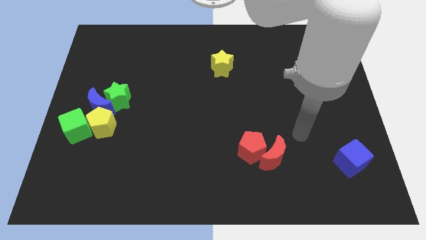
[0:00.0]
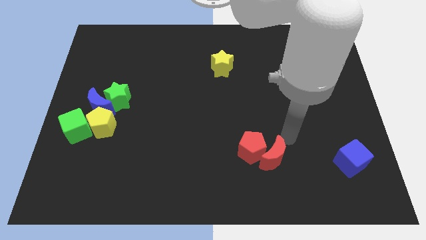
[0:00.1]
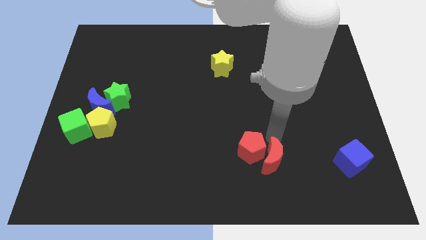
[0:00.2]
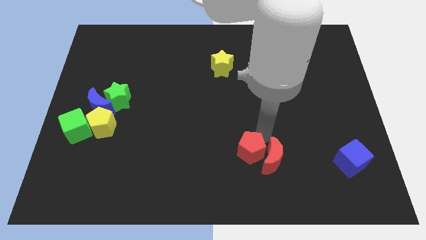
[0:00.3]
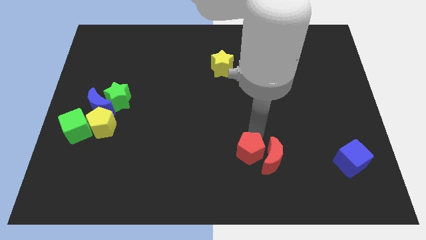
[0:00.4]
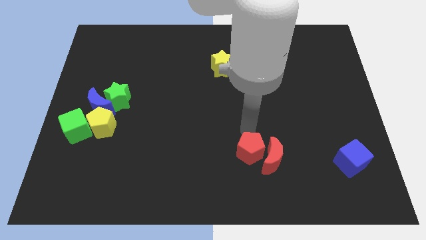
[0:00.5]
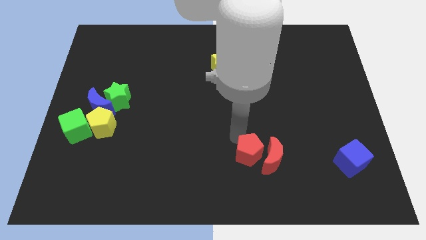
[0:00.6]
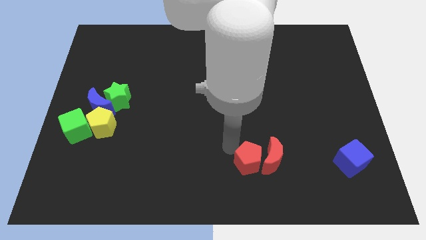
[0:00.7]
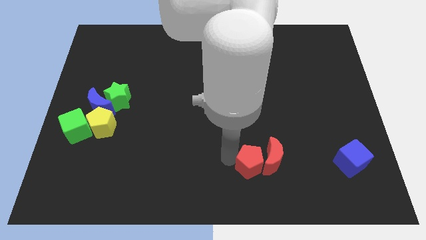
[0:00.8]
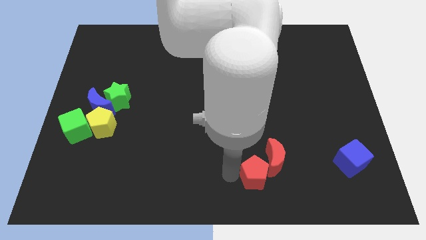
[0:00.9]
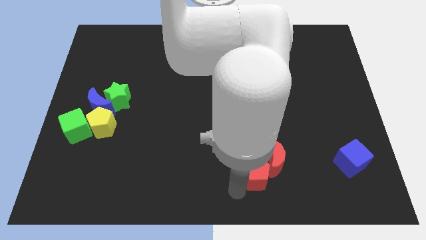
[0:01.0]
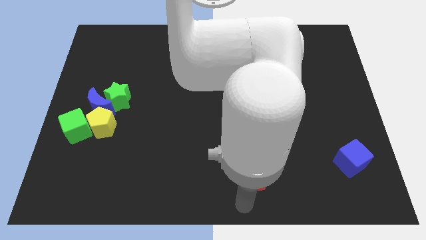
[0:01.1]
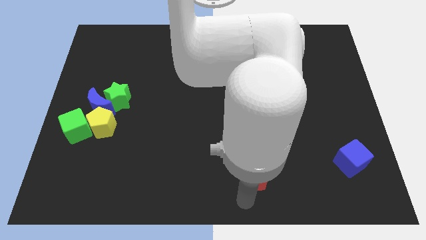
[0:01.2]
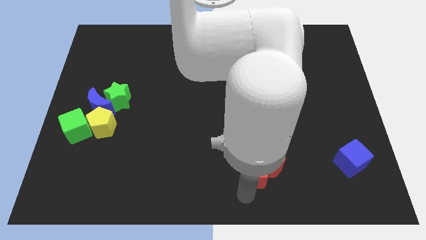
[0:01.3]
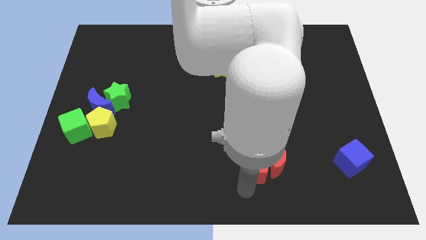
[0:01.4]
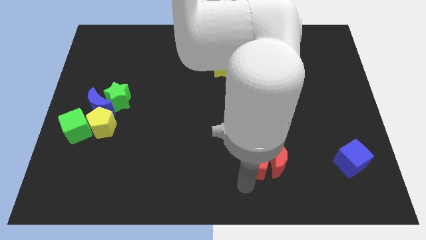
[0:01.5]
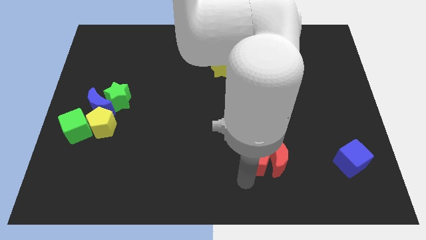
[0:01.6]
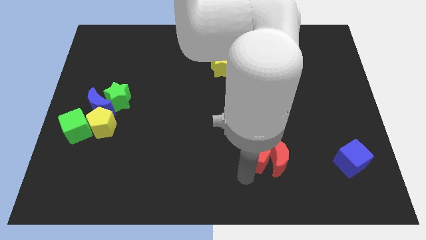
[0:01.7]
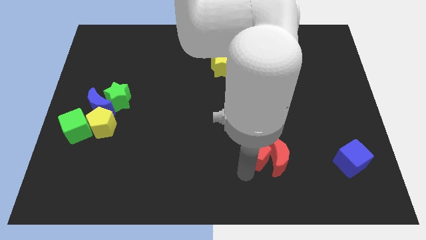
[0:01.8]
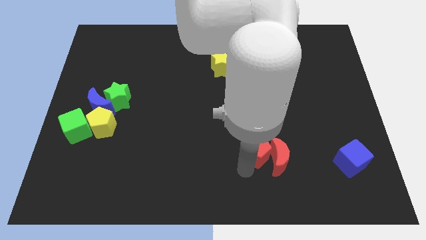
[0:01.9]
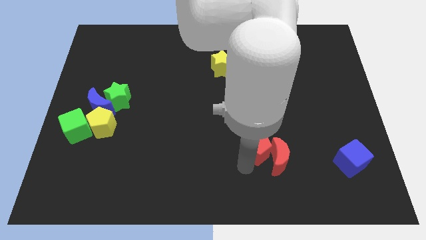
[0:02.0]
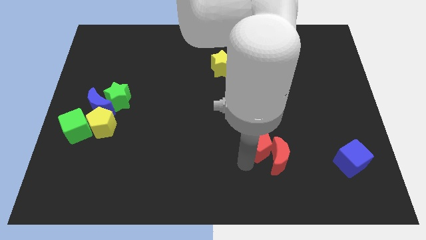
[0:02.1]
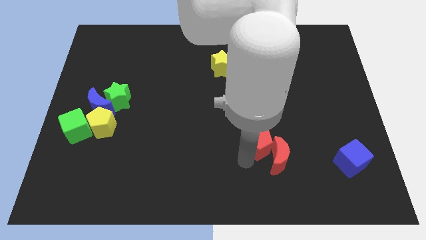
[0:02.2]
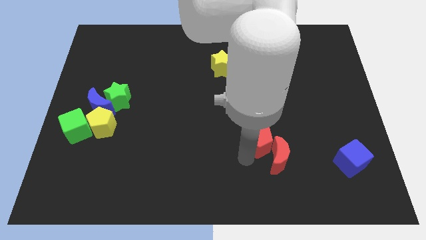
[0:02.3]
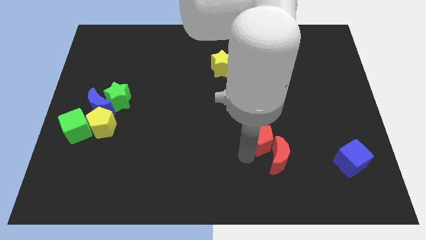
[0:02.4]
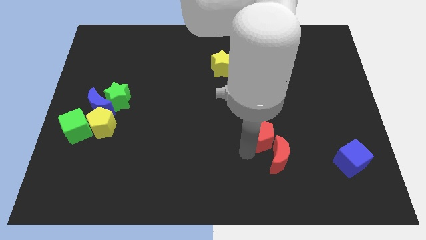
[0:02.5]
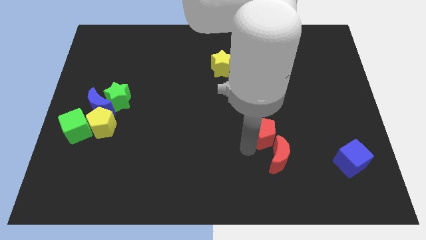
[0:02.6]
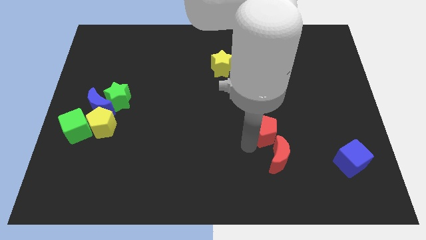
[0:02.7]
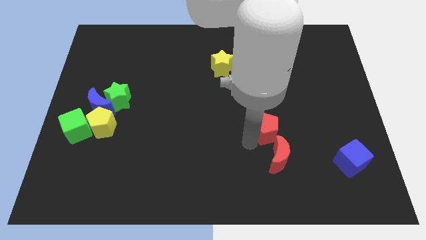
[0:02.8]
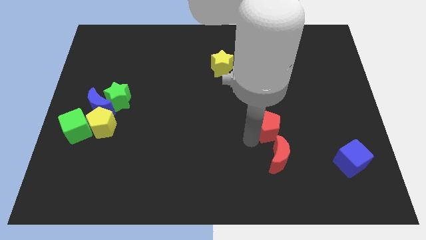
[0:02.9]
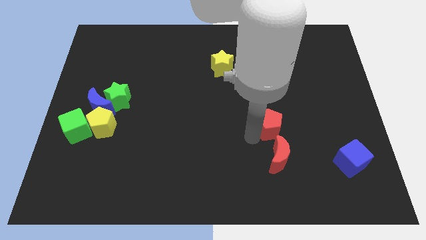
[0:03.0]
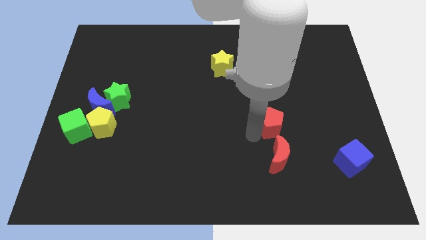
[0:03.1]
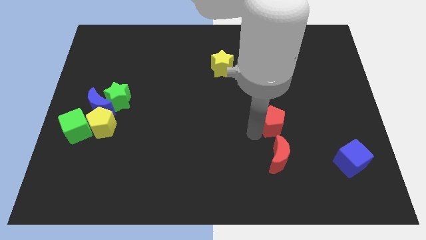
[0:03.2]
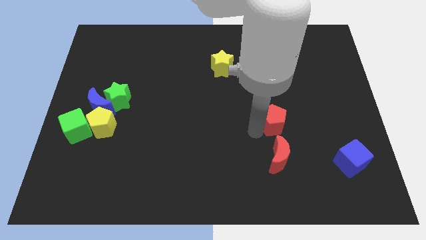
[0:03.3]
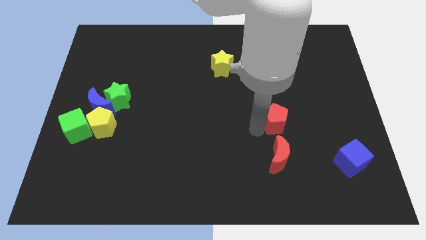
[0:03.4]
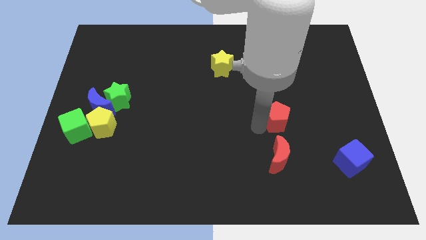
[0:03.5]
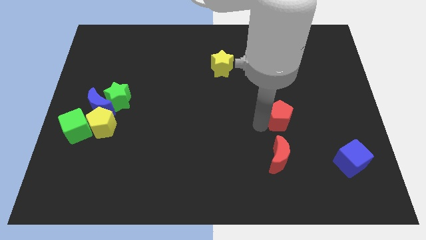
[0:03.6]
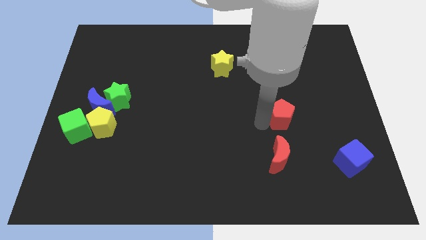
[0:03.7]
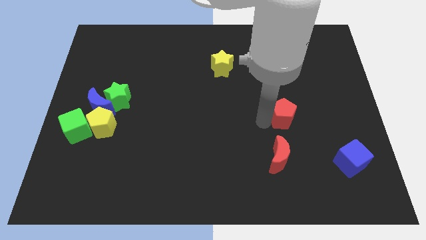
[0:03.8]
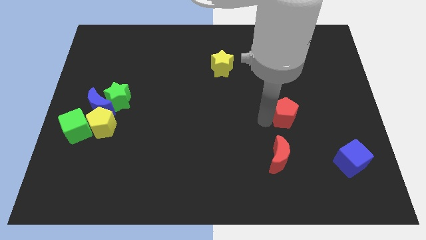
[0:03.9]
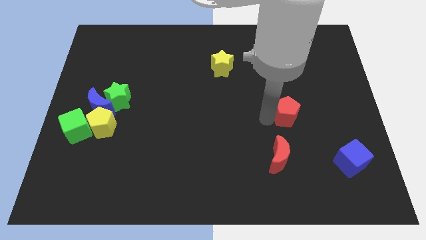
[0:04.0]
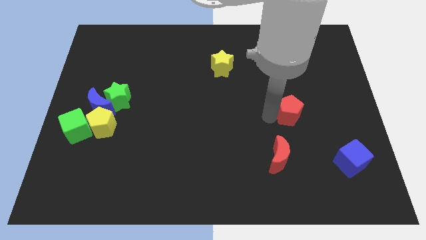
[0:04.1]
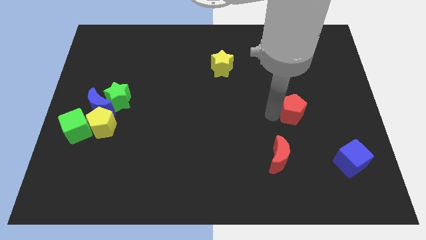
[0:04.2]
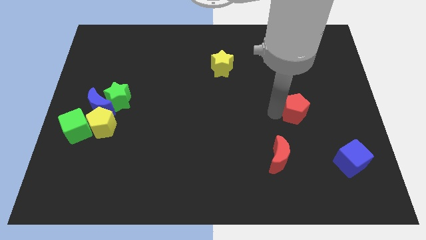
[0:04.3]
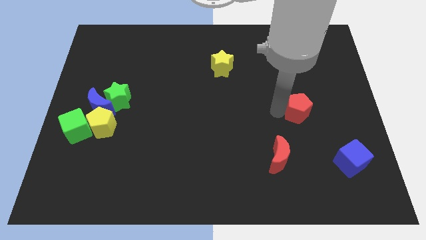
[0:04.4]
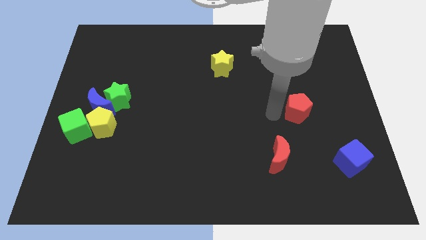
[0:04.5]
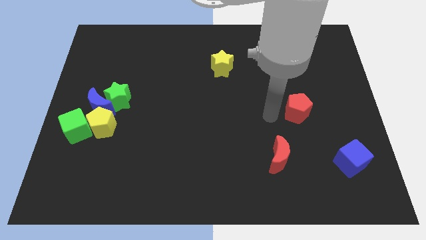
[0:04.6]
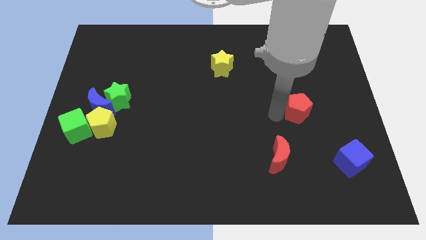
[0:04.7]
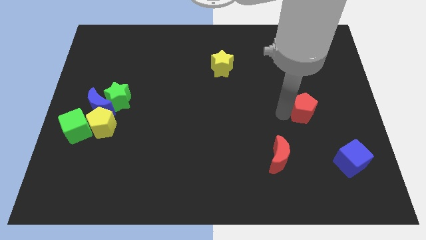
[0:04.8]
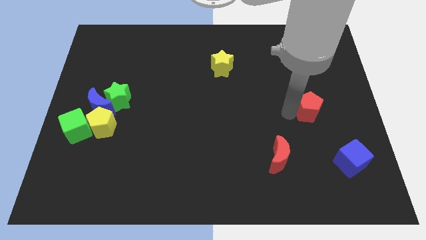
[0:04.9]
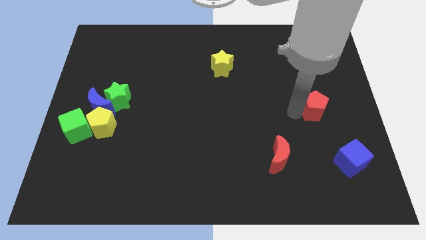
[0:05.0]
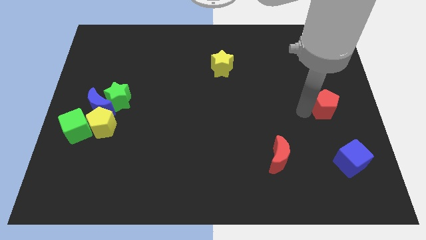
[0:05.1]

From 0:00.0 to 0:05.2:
push the red pentagon to the right side of the board
